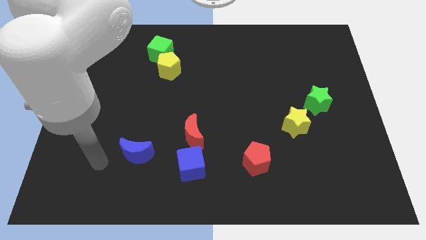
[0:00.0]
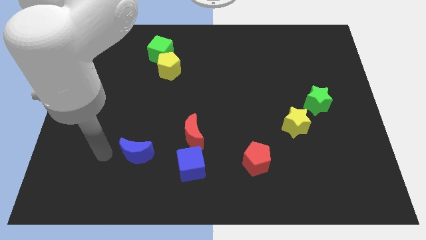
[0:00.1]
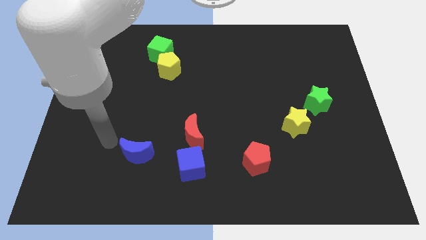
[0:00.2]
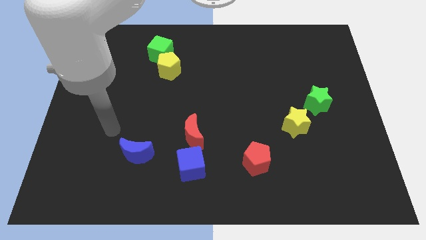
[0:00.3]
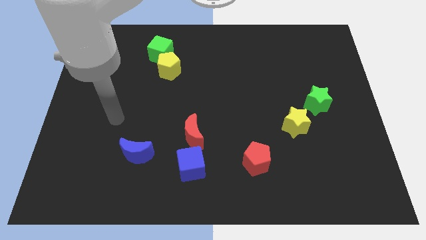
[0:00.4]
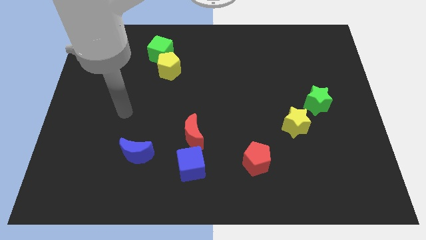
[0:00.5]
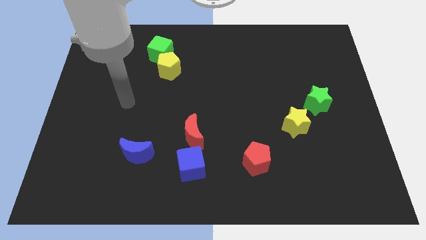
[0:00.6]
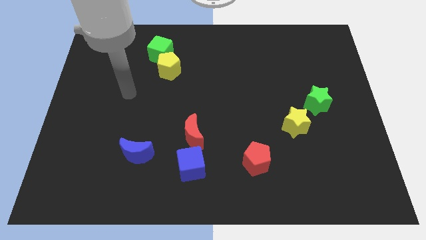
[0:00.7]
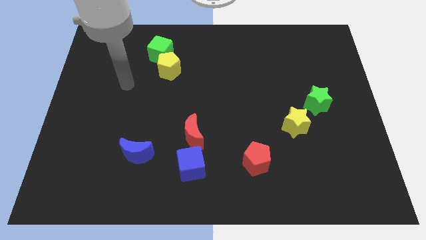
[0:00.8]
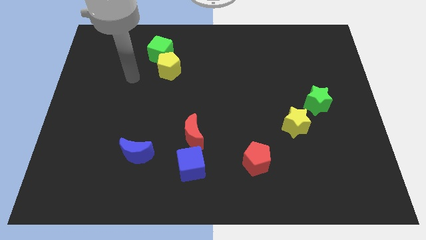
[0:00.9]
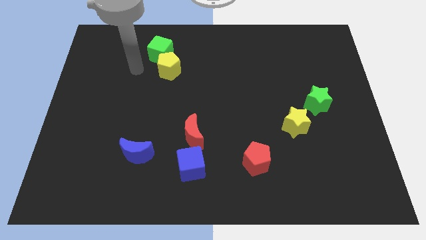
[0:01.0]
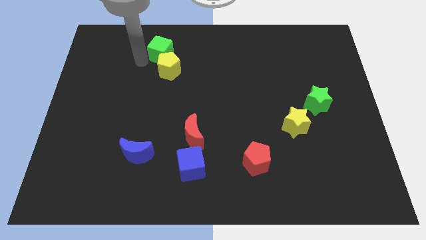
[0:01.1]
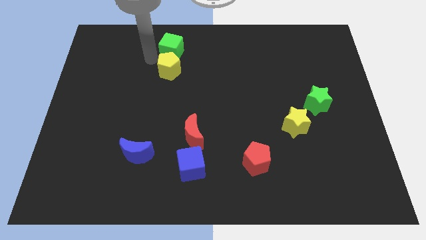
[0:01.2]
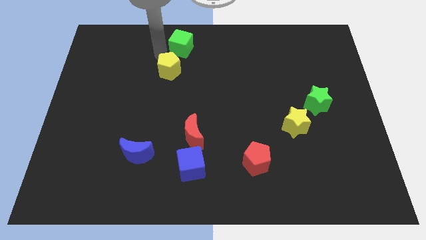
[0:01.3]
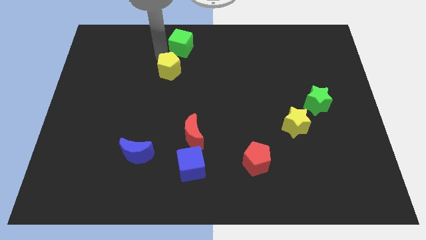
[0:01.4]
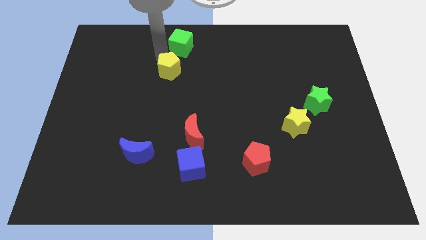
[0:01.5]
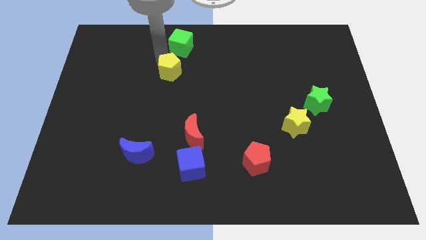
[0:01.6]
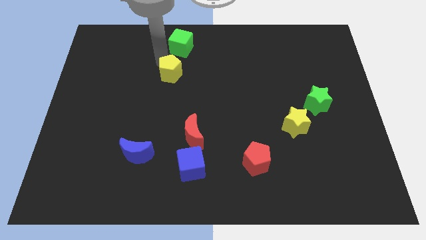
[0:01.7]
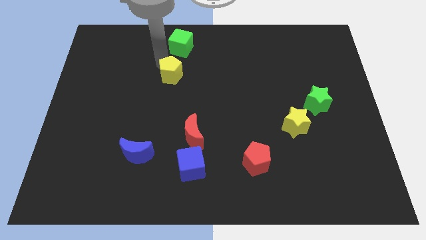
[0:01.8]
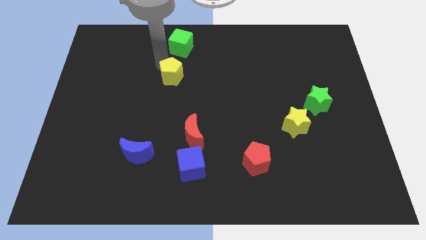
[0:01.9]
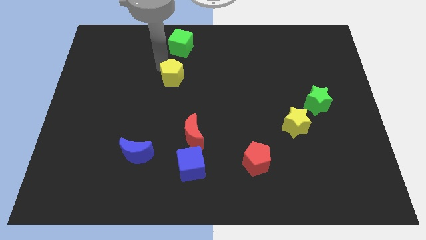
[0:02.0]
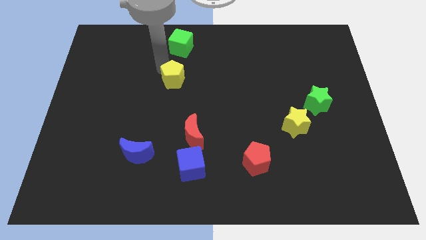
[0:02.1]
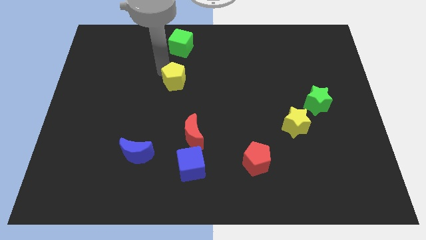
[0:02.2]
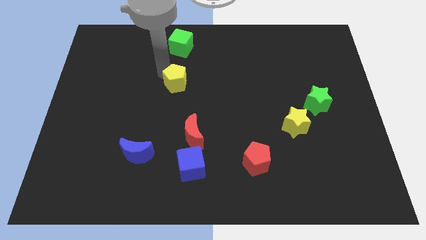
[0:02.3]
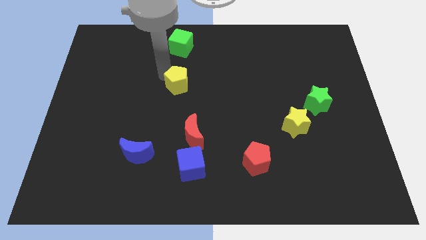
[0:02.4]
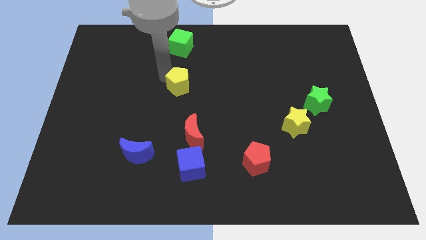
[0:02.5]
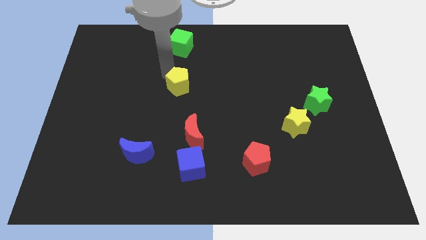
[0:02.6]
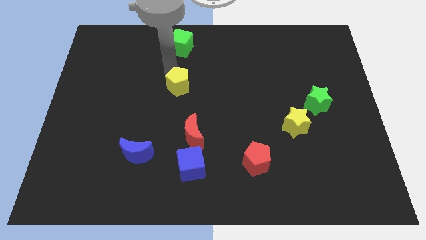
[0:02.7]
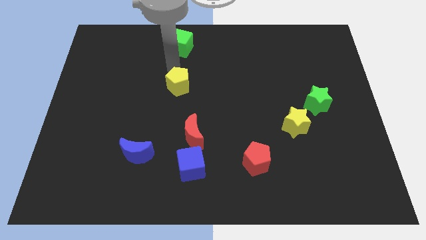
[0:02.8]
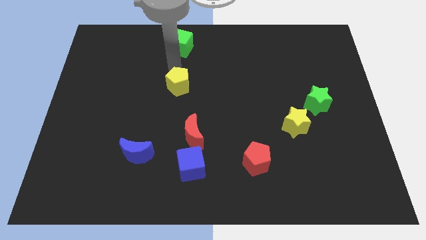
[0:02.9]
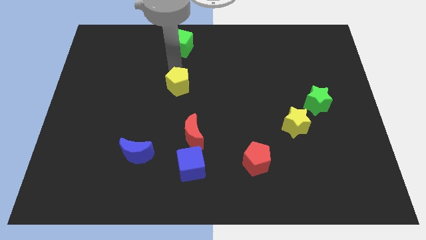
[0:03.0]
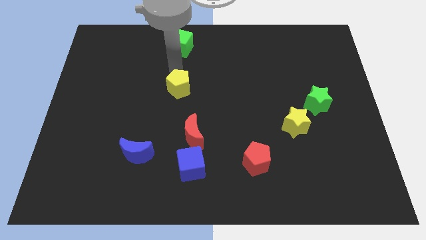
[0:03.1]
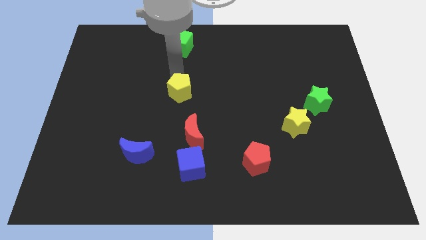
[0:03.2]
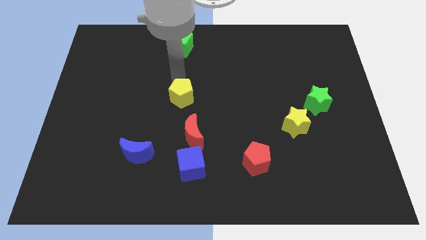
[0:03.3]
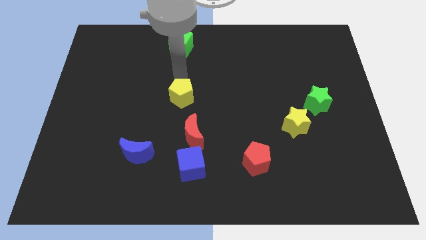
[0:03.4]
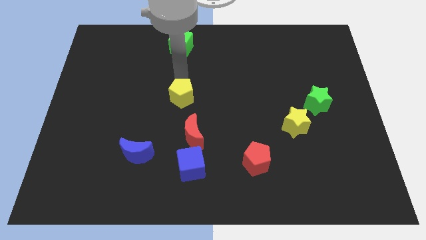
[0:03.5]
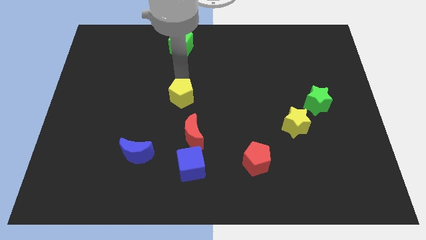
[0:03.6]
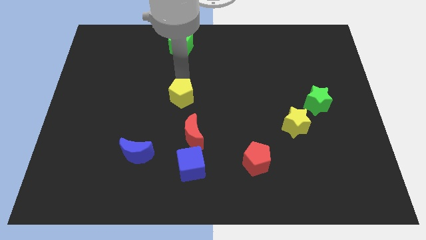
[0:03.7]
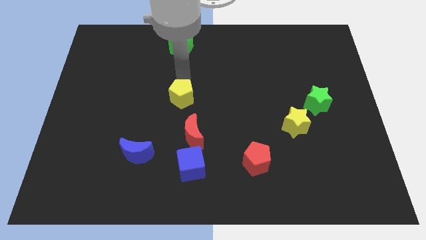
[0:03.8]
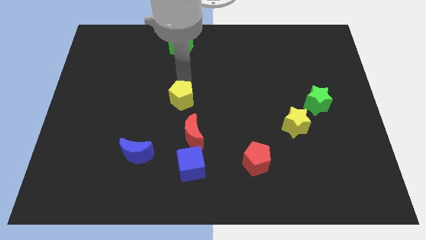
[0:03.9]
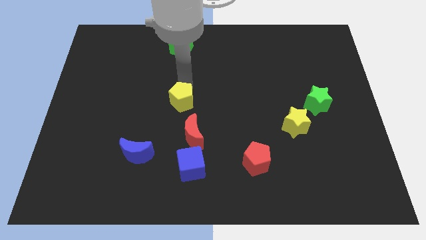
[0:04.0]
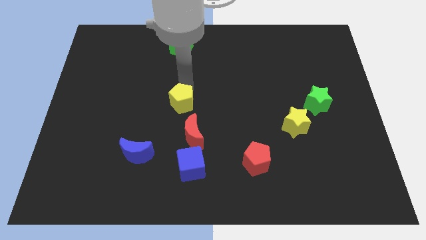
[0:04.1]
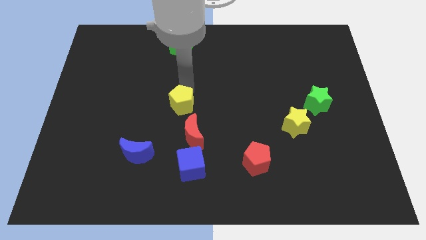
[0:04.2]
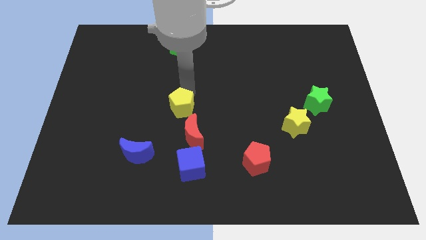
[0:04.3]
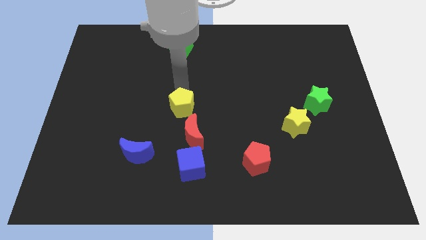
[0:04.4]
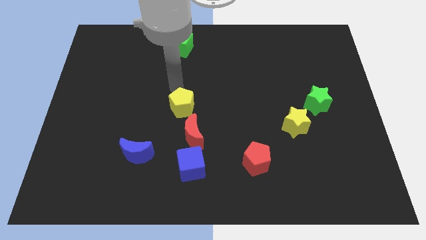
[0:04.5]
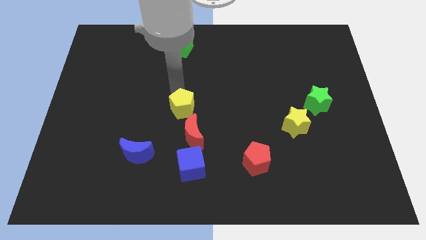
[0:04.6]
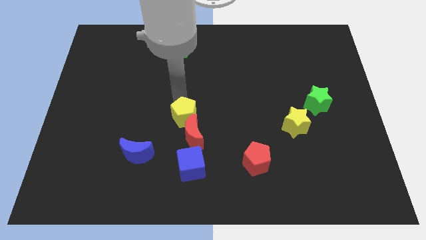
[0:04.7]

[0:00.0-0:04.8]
push the yellow pentagon towards the red moon

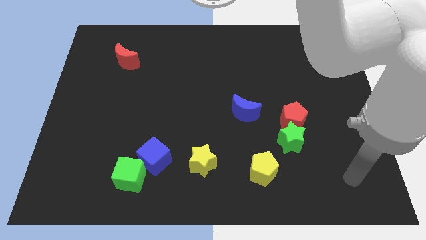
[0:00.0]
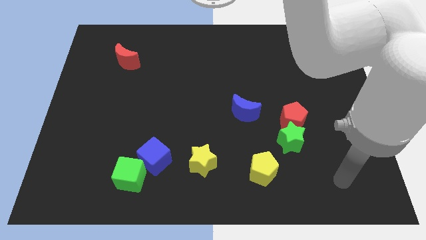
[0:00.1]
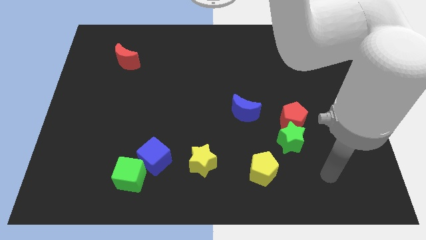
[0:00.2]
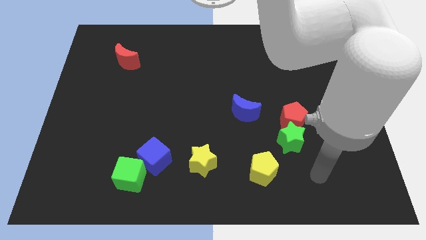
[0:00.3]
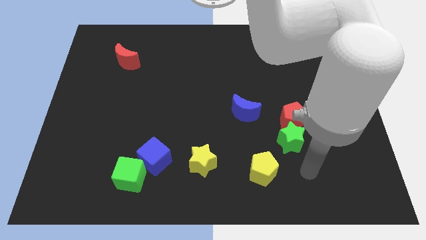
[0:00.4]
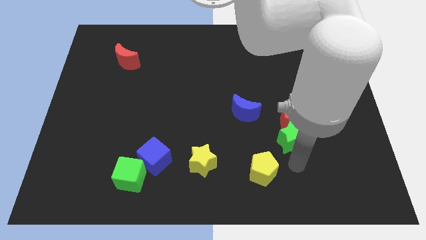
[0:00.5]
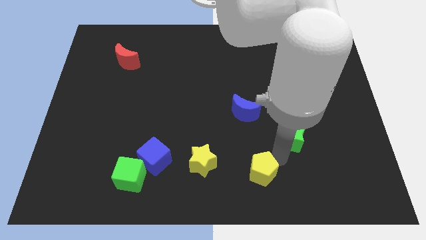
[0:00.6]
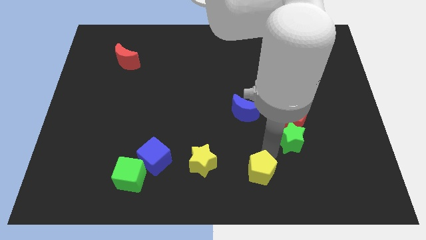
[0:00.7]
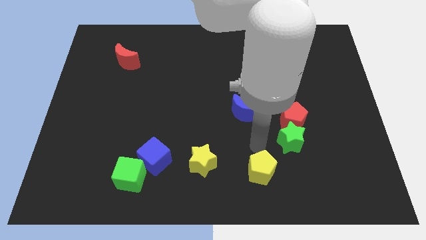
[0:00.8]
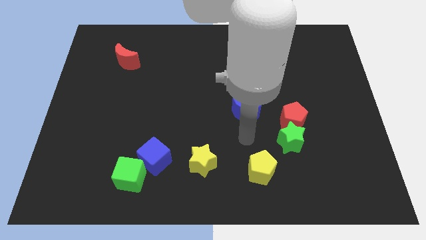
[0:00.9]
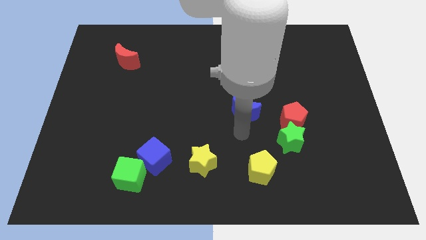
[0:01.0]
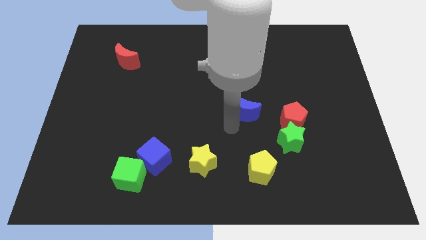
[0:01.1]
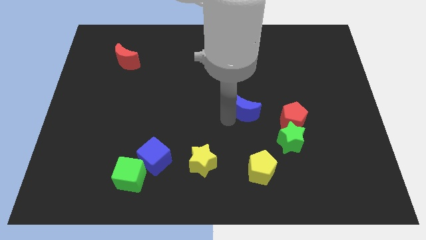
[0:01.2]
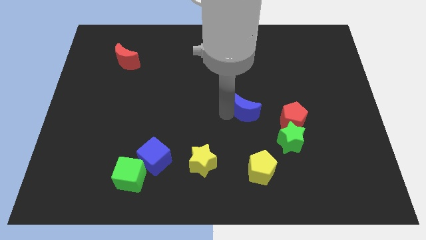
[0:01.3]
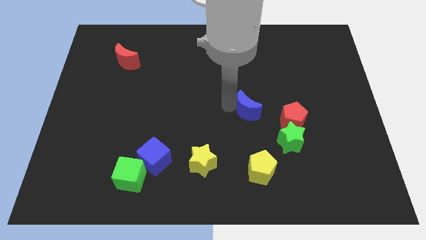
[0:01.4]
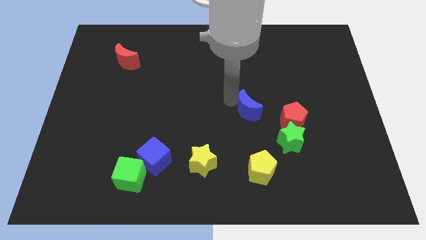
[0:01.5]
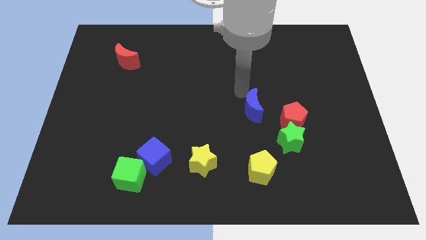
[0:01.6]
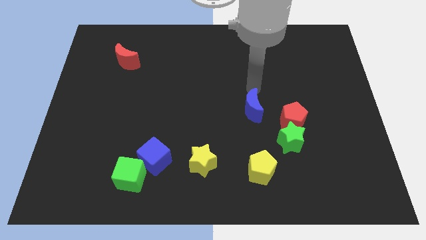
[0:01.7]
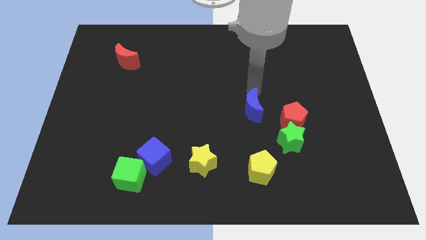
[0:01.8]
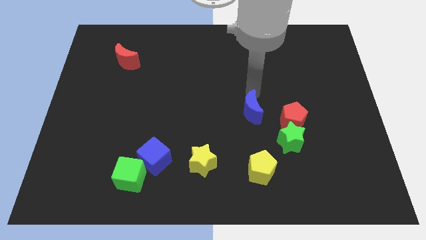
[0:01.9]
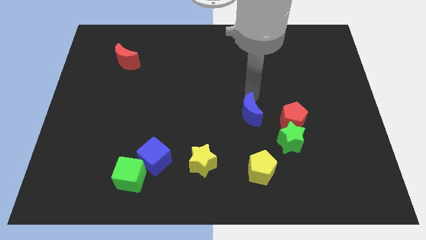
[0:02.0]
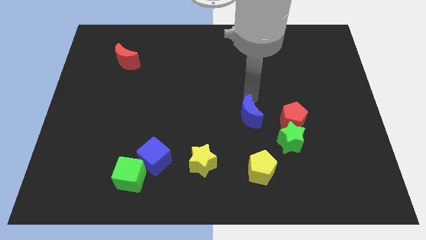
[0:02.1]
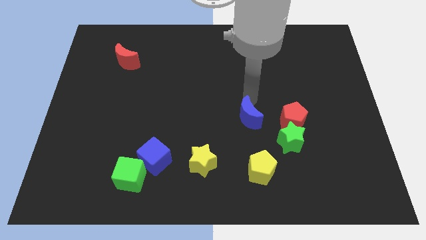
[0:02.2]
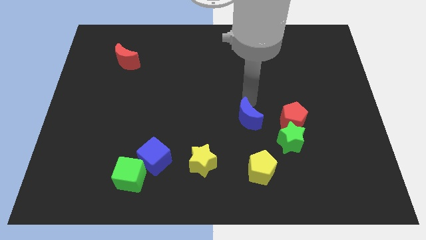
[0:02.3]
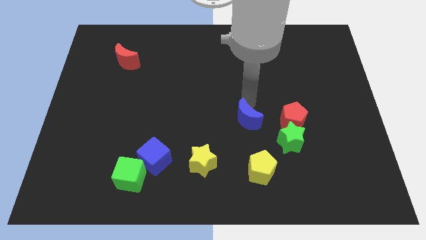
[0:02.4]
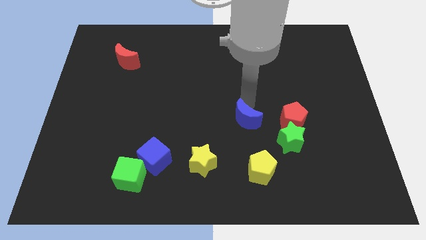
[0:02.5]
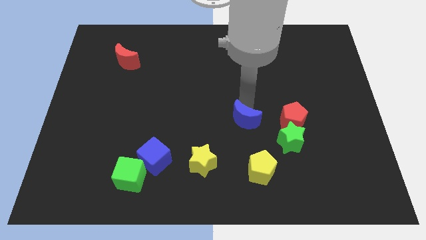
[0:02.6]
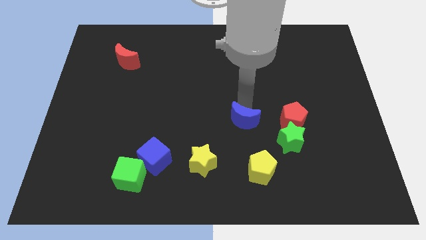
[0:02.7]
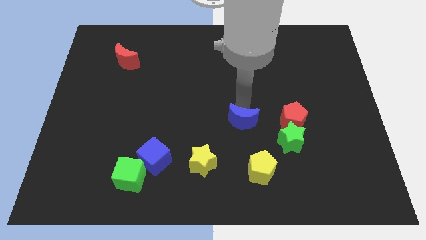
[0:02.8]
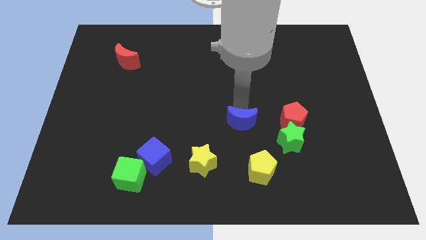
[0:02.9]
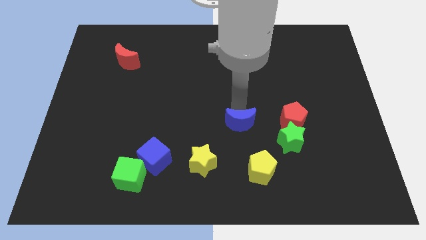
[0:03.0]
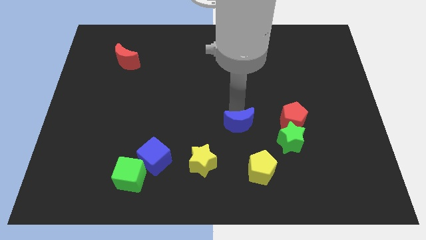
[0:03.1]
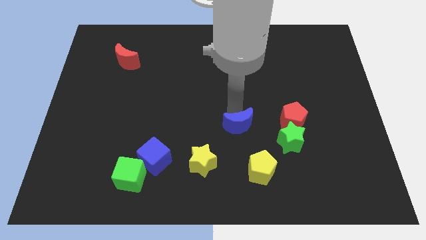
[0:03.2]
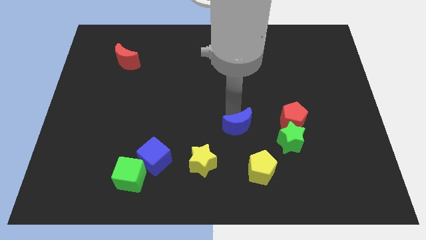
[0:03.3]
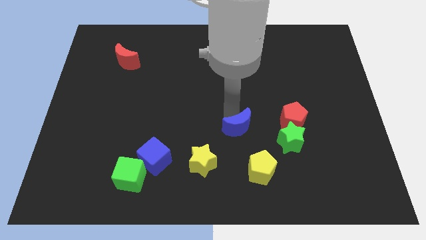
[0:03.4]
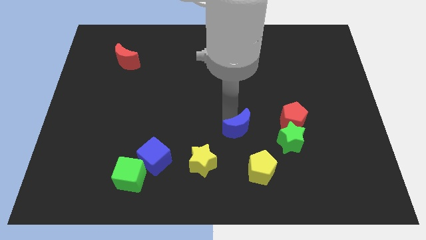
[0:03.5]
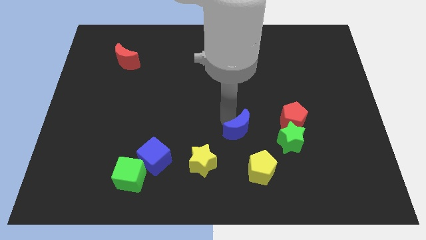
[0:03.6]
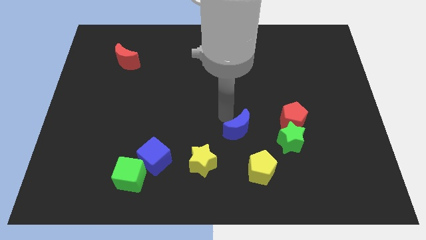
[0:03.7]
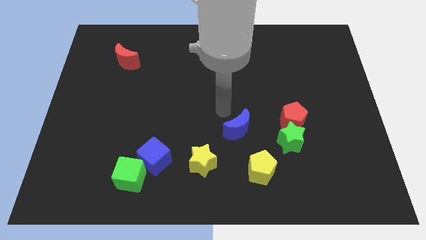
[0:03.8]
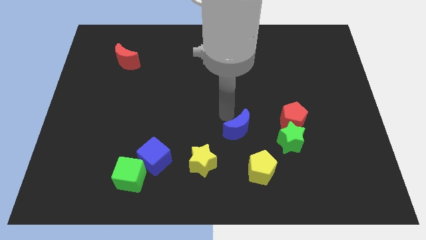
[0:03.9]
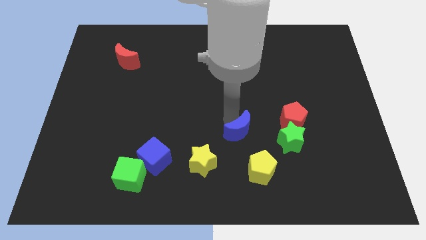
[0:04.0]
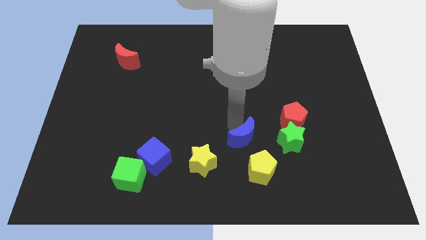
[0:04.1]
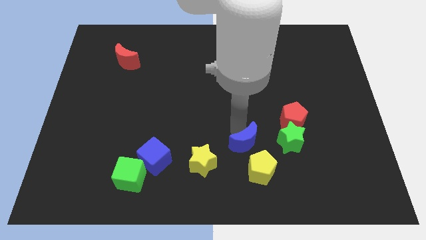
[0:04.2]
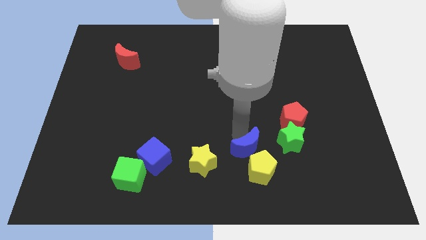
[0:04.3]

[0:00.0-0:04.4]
slide the blue moon close to the yellow pentagon
